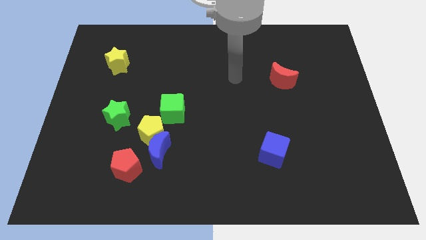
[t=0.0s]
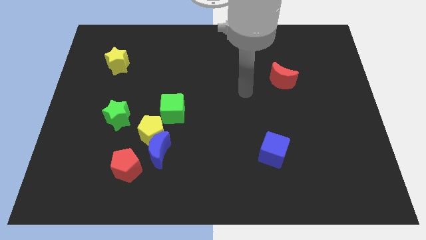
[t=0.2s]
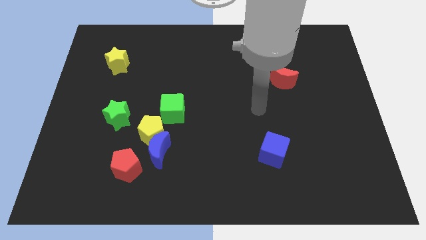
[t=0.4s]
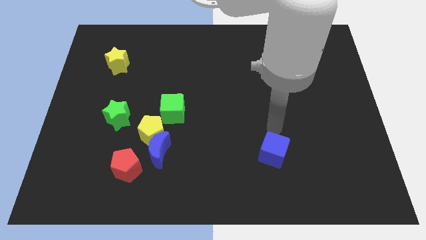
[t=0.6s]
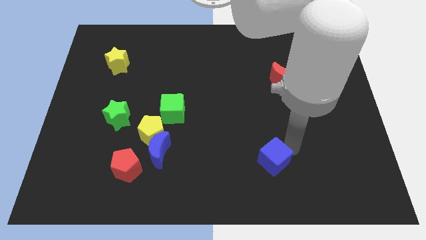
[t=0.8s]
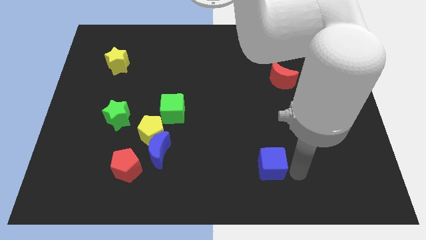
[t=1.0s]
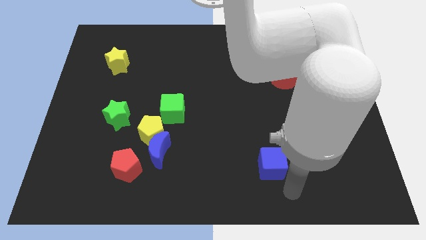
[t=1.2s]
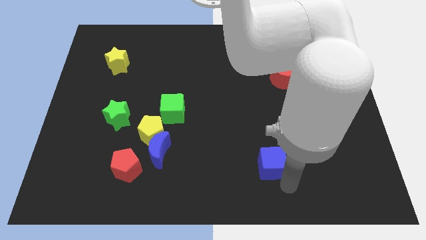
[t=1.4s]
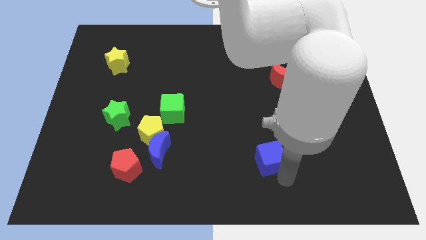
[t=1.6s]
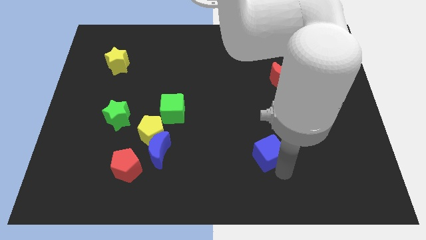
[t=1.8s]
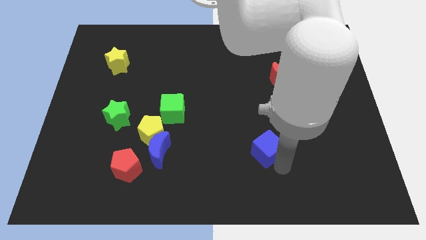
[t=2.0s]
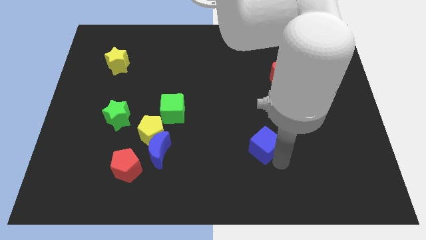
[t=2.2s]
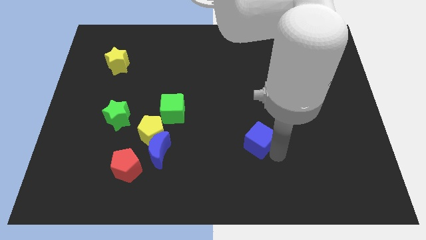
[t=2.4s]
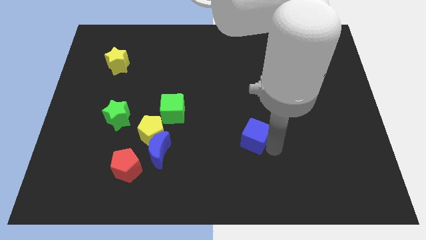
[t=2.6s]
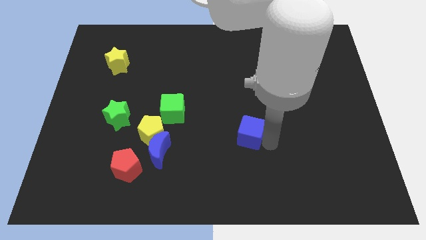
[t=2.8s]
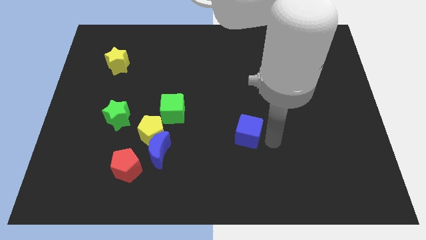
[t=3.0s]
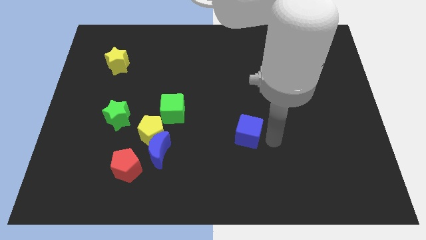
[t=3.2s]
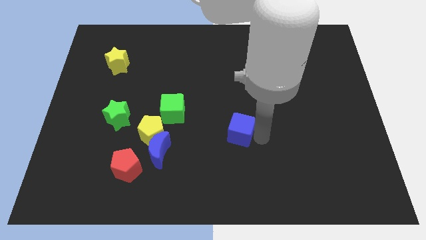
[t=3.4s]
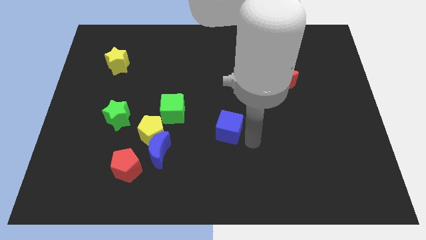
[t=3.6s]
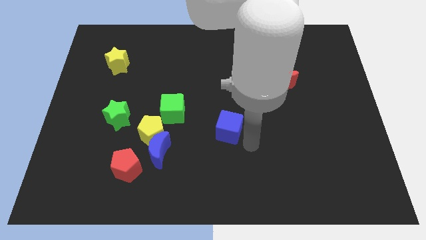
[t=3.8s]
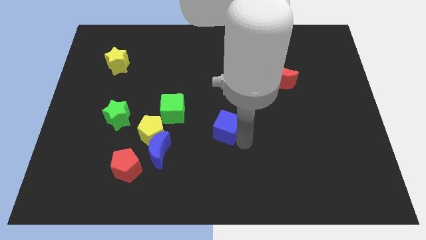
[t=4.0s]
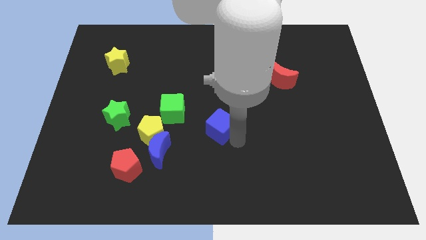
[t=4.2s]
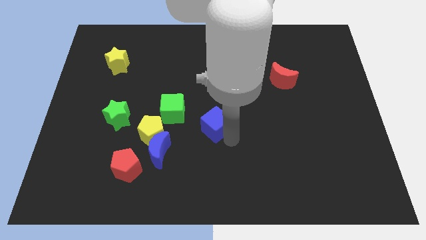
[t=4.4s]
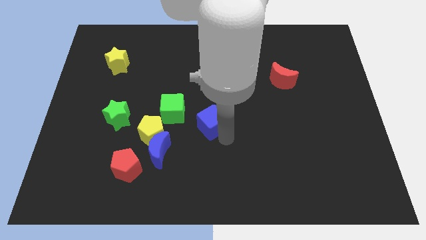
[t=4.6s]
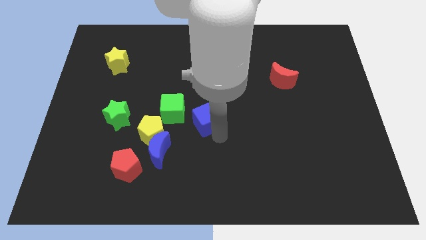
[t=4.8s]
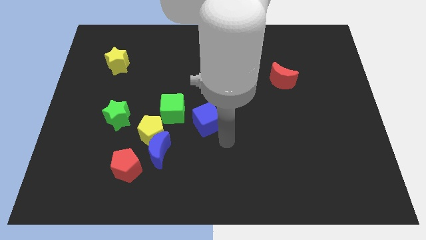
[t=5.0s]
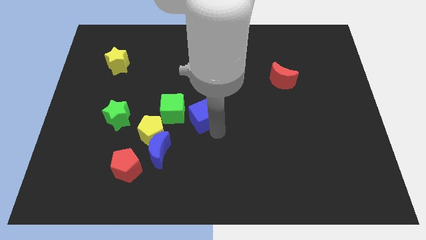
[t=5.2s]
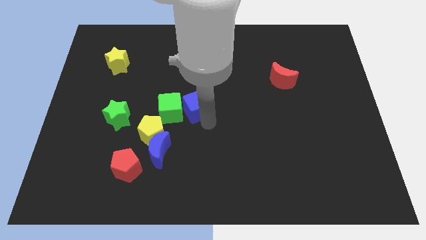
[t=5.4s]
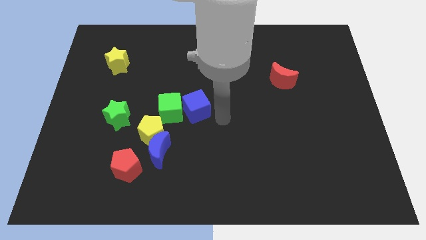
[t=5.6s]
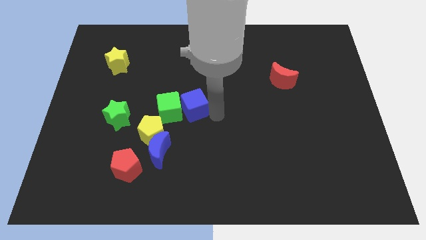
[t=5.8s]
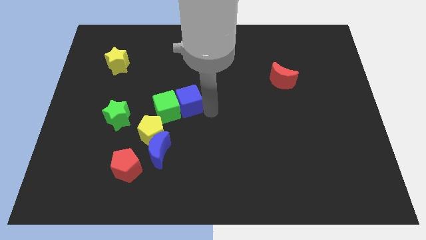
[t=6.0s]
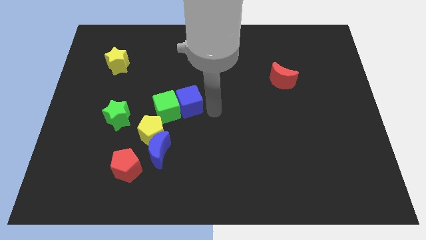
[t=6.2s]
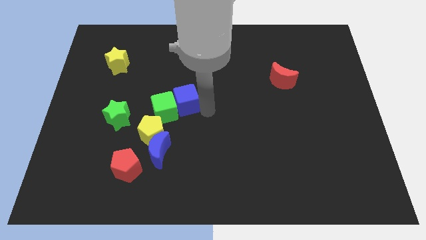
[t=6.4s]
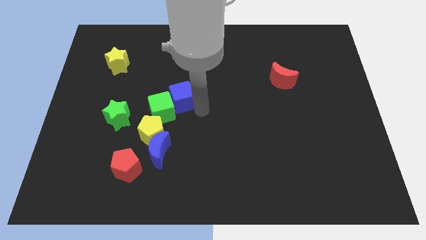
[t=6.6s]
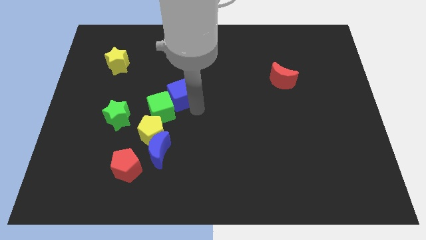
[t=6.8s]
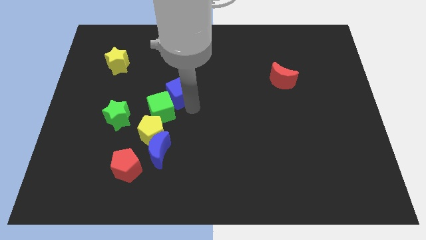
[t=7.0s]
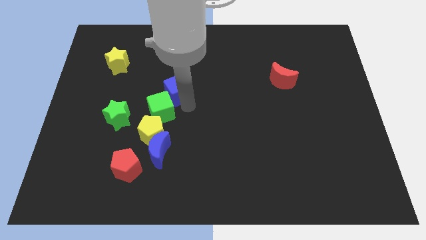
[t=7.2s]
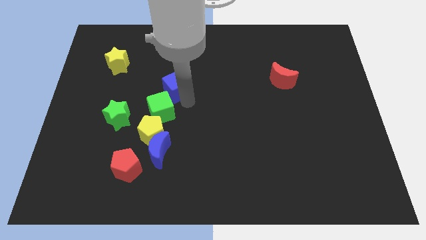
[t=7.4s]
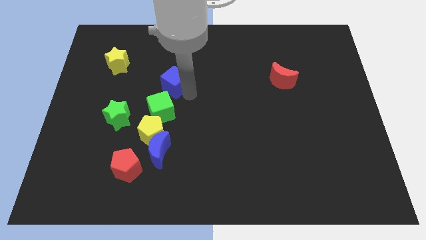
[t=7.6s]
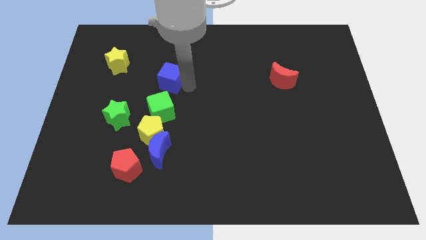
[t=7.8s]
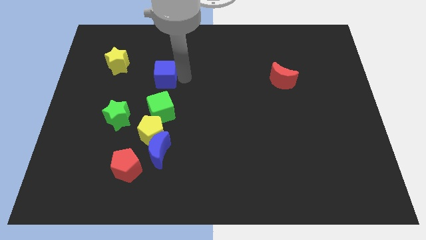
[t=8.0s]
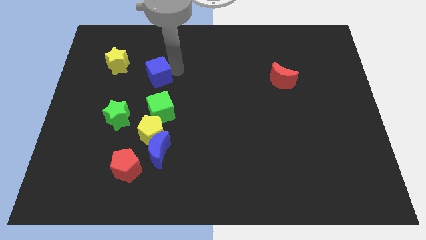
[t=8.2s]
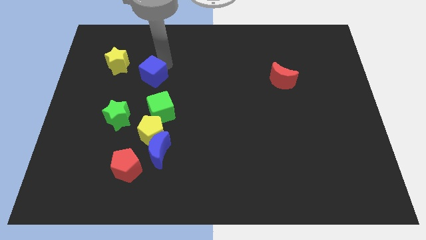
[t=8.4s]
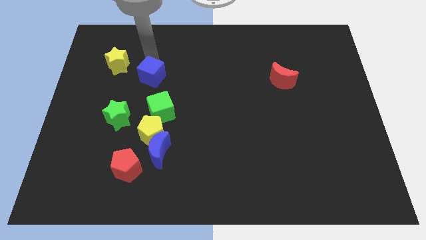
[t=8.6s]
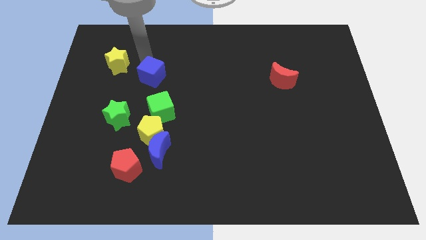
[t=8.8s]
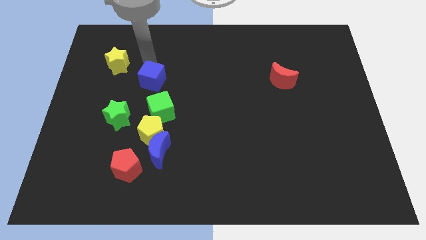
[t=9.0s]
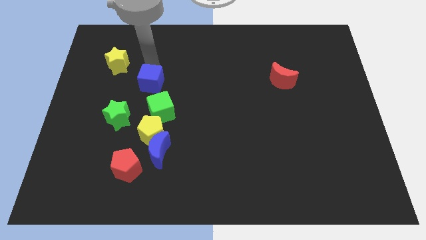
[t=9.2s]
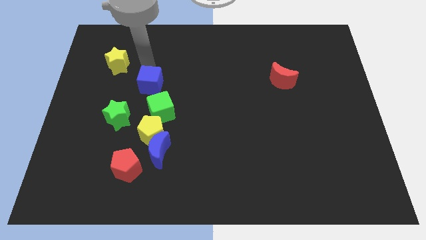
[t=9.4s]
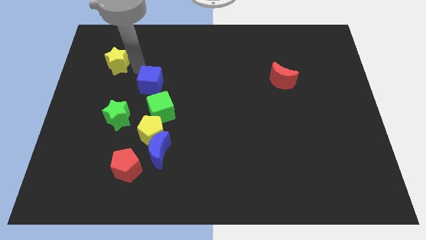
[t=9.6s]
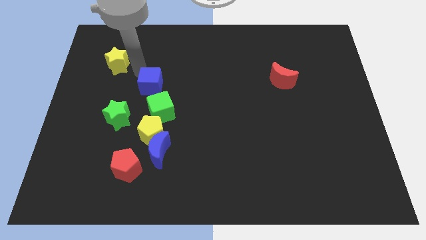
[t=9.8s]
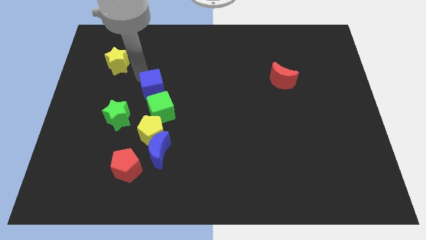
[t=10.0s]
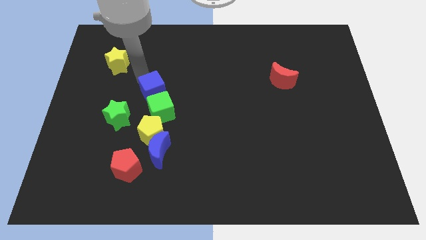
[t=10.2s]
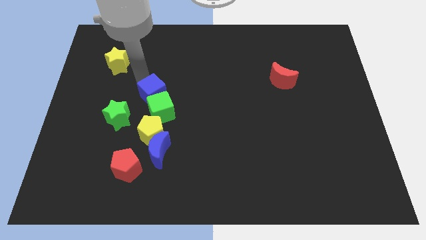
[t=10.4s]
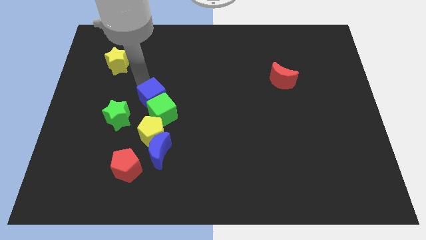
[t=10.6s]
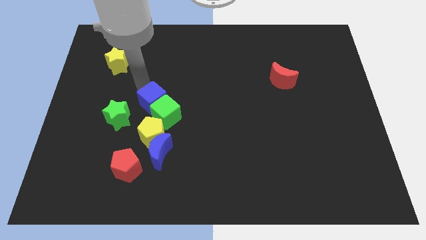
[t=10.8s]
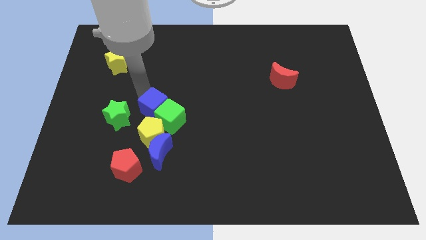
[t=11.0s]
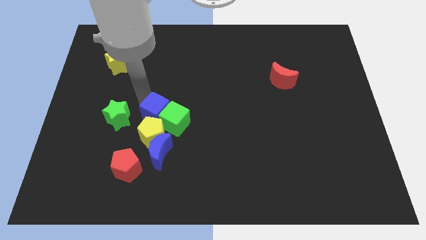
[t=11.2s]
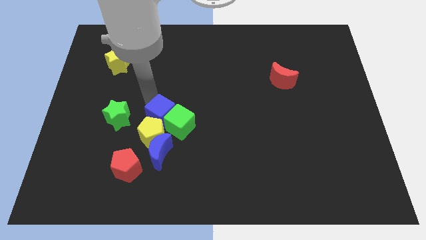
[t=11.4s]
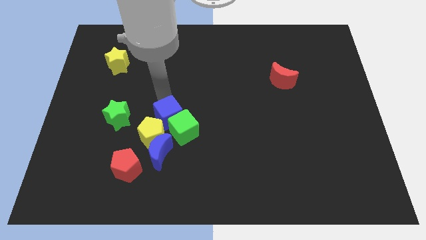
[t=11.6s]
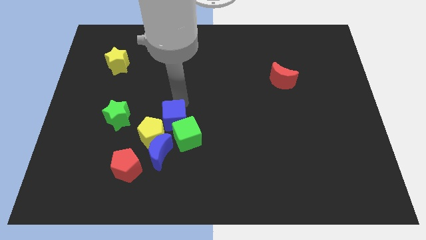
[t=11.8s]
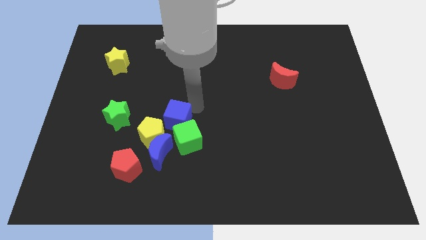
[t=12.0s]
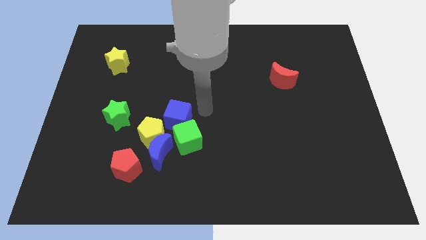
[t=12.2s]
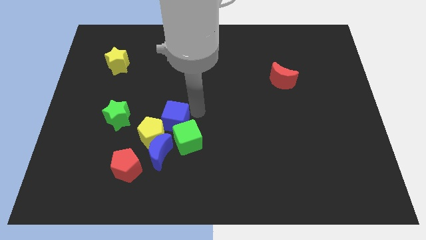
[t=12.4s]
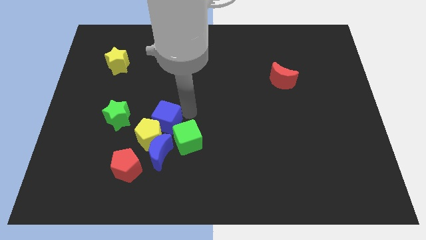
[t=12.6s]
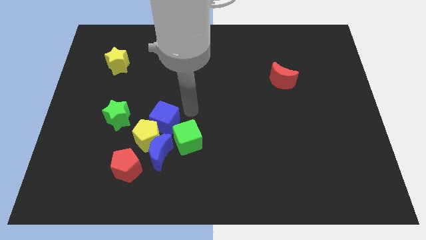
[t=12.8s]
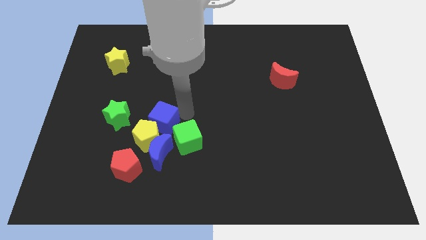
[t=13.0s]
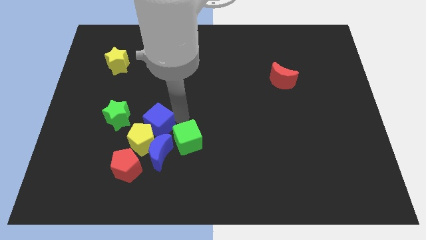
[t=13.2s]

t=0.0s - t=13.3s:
slide the blue cube to the top left of the blue moon
